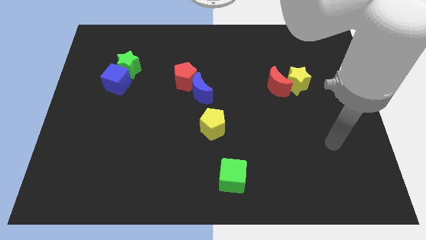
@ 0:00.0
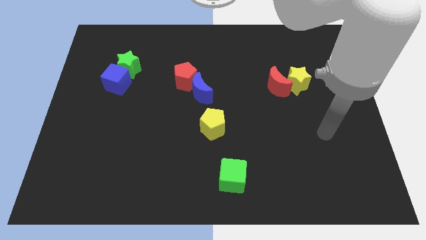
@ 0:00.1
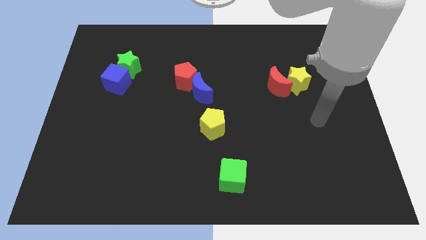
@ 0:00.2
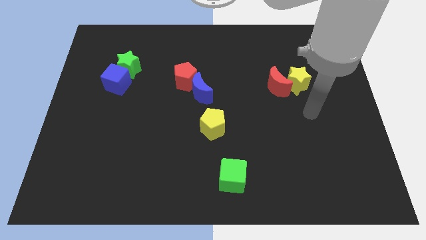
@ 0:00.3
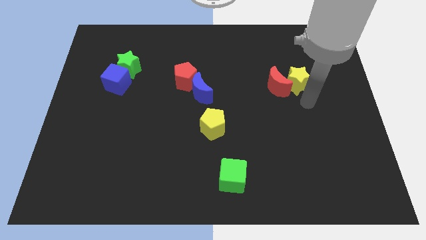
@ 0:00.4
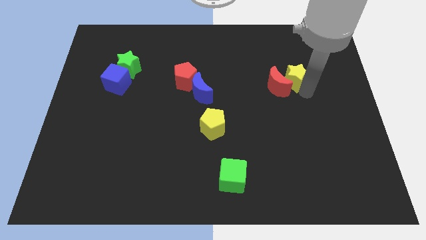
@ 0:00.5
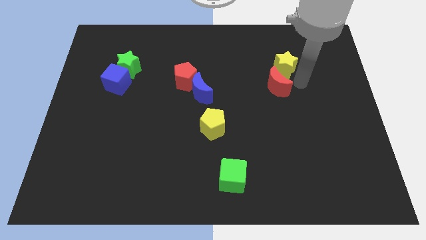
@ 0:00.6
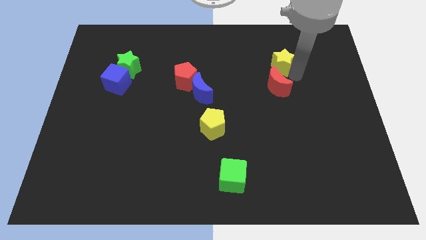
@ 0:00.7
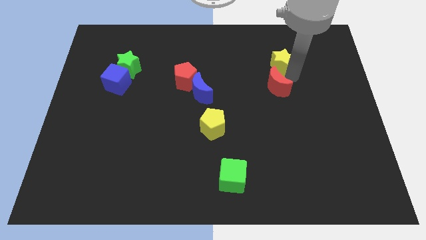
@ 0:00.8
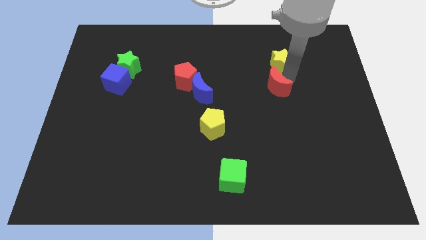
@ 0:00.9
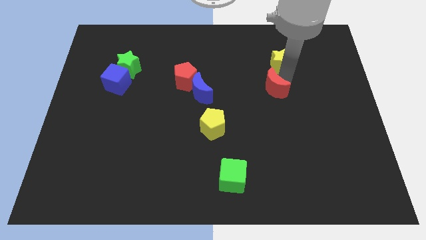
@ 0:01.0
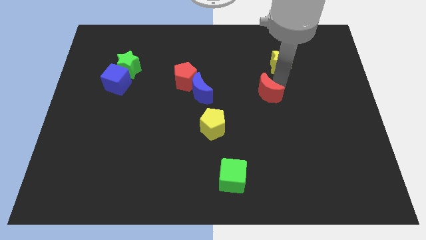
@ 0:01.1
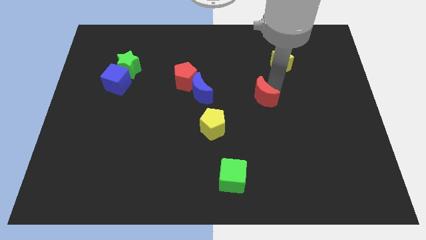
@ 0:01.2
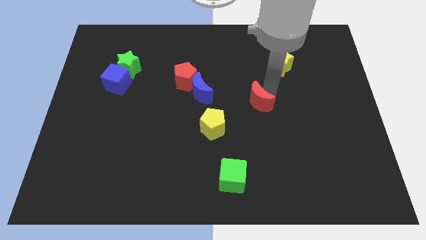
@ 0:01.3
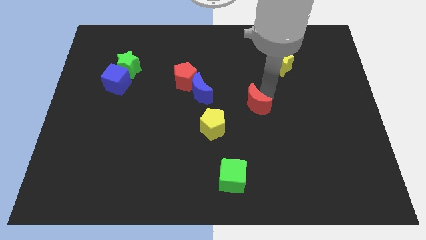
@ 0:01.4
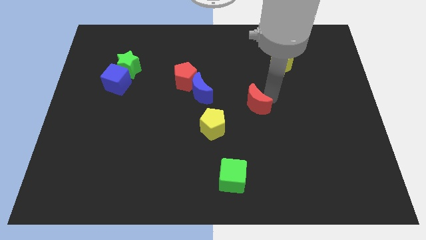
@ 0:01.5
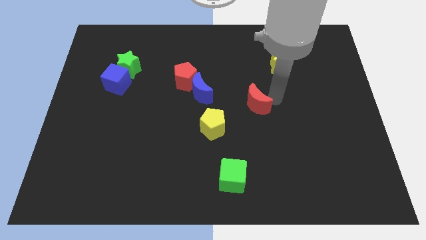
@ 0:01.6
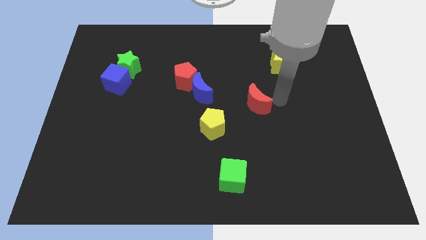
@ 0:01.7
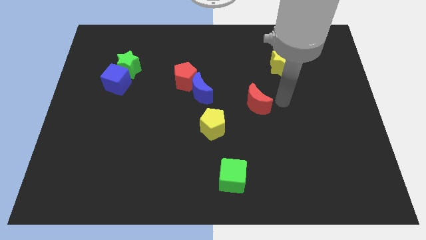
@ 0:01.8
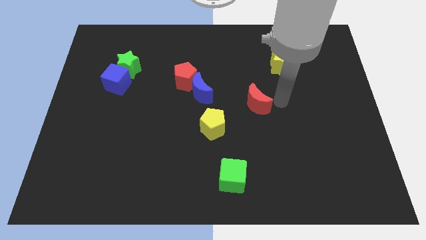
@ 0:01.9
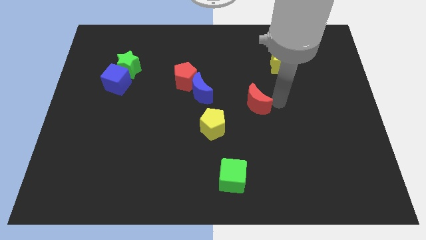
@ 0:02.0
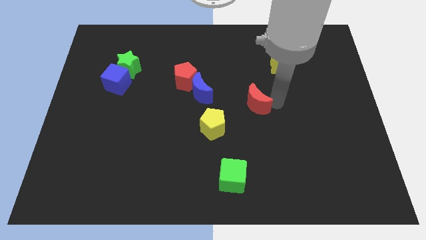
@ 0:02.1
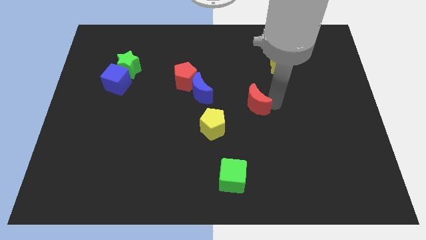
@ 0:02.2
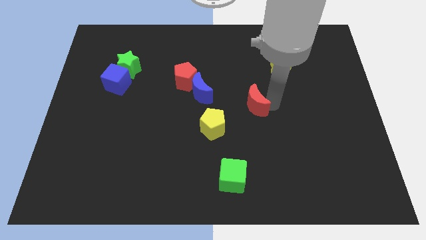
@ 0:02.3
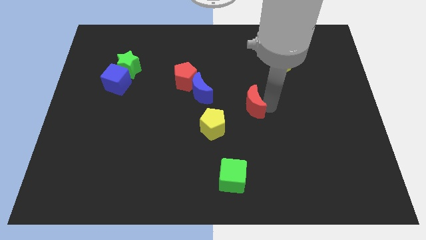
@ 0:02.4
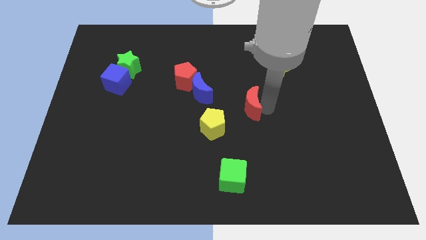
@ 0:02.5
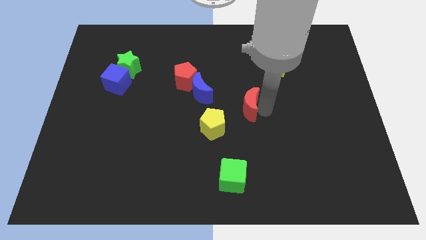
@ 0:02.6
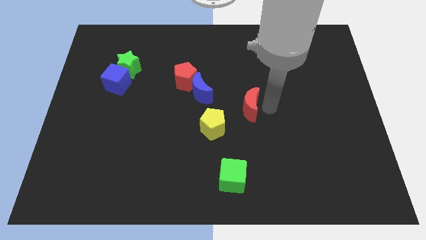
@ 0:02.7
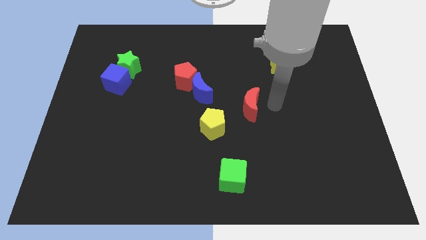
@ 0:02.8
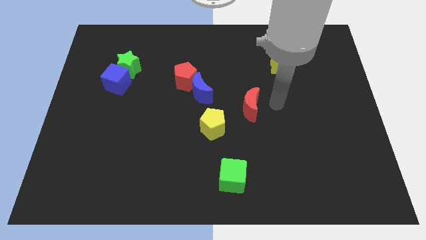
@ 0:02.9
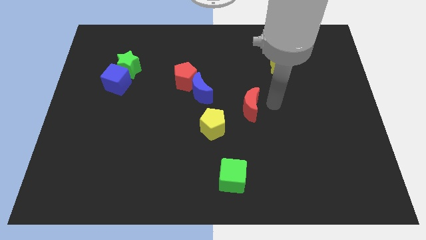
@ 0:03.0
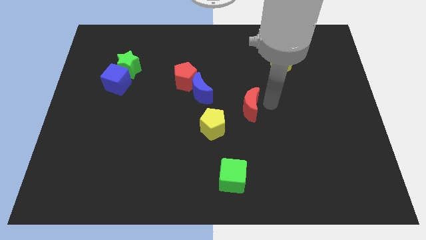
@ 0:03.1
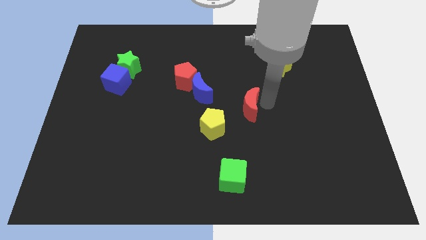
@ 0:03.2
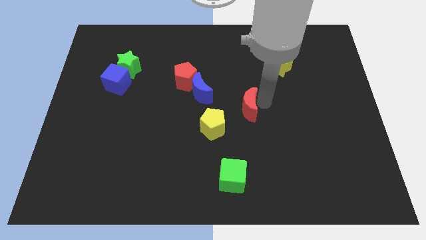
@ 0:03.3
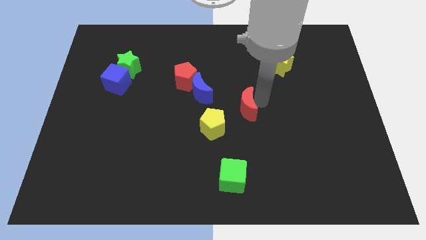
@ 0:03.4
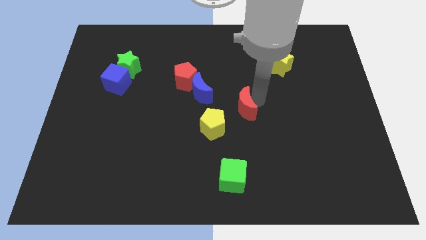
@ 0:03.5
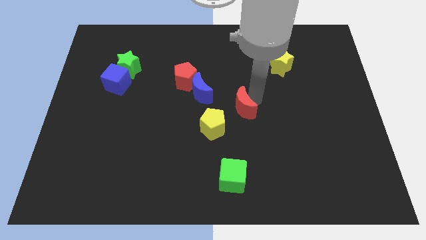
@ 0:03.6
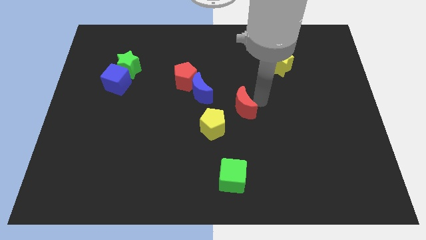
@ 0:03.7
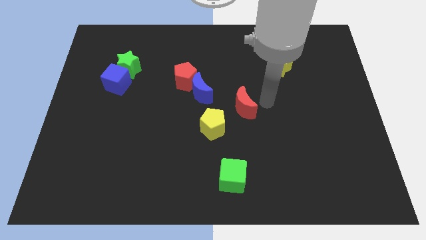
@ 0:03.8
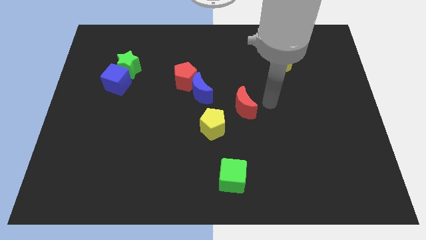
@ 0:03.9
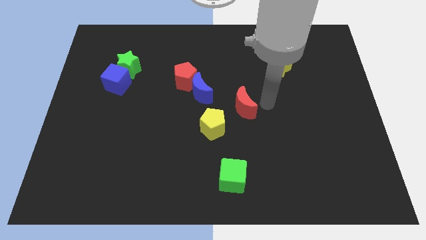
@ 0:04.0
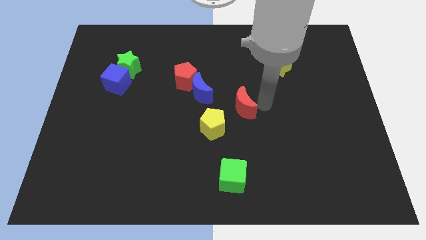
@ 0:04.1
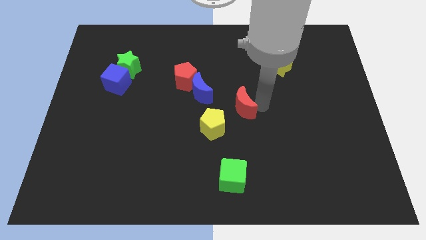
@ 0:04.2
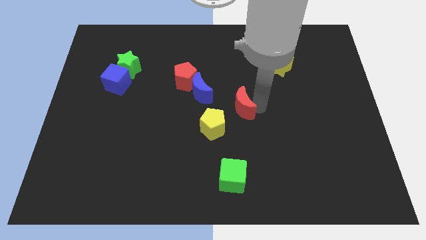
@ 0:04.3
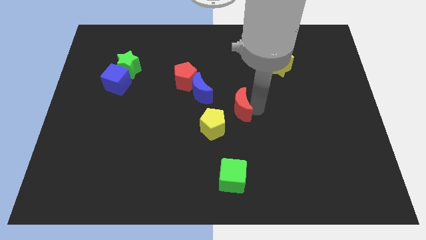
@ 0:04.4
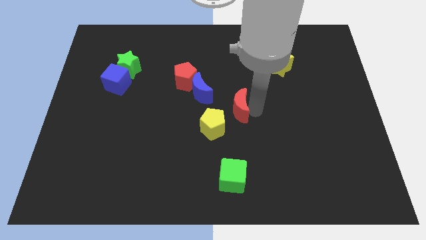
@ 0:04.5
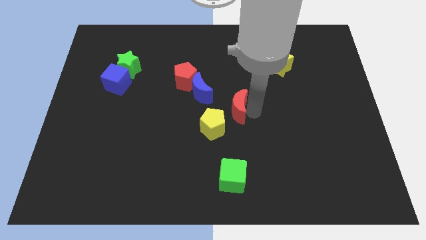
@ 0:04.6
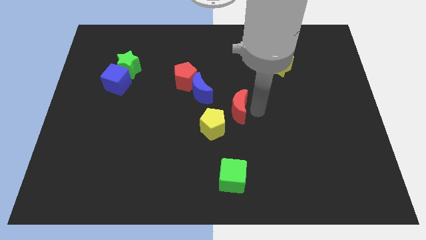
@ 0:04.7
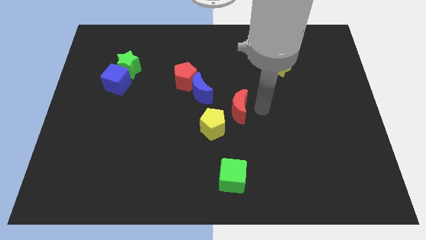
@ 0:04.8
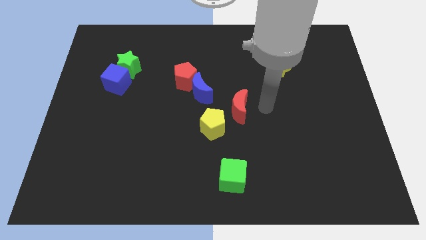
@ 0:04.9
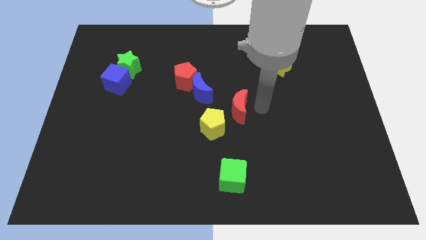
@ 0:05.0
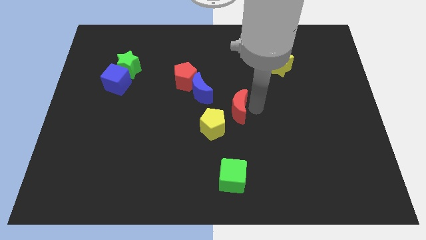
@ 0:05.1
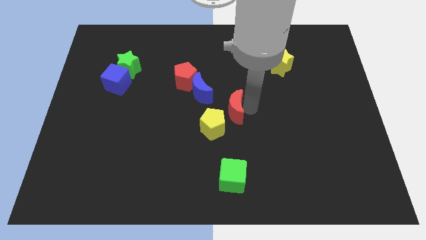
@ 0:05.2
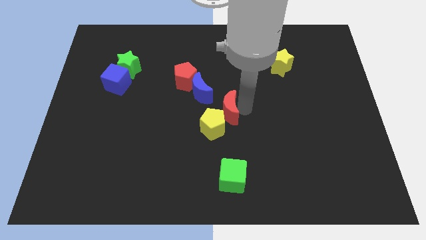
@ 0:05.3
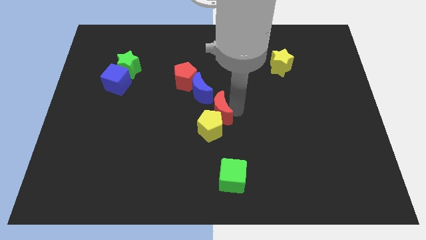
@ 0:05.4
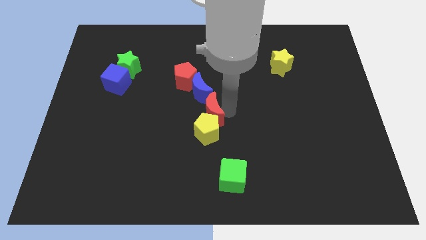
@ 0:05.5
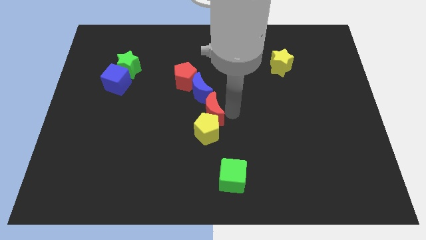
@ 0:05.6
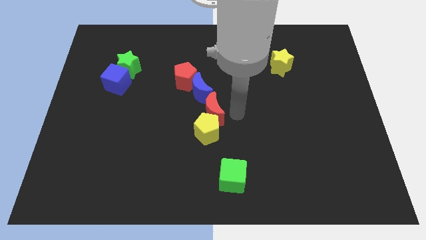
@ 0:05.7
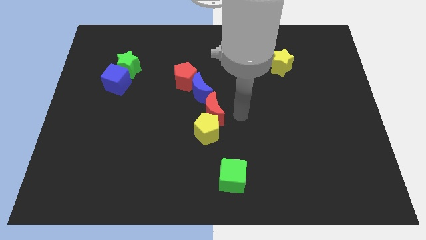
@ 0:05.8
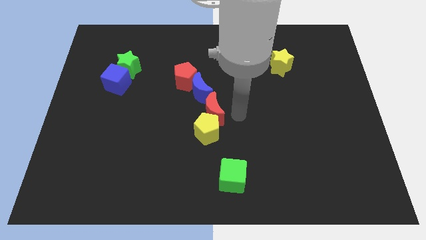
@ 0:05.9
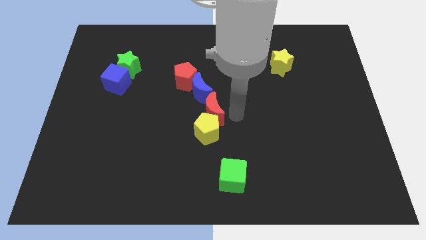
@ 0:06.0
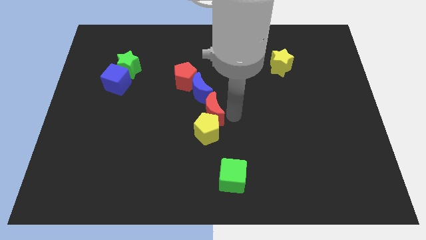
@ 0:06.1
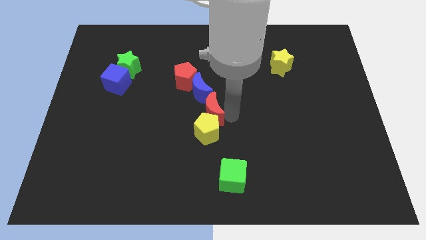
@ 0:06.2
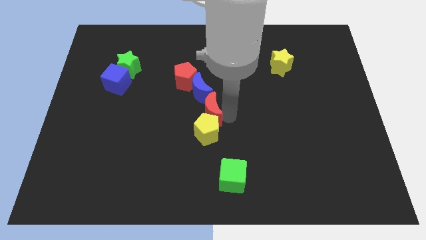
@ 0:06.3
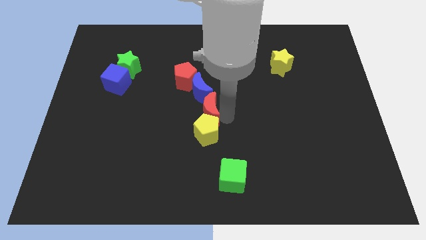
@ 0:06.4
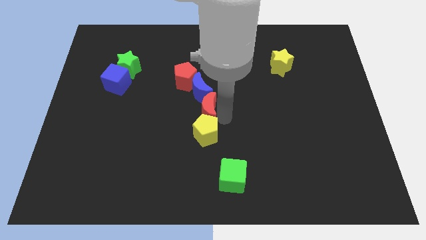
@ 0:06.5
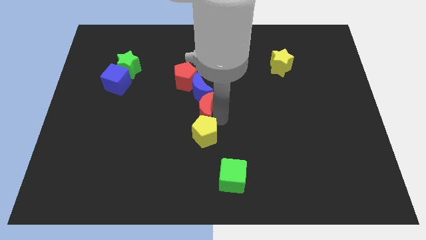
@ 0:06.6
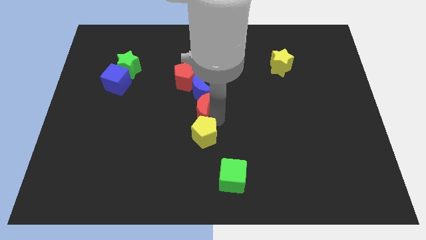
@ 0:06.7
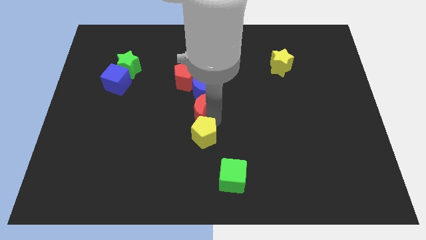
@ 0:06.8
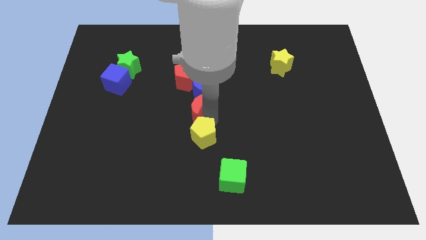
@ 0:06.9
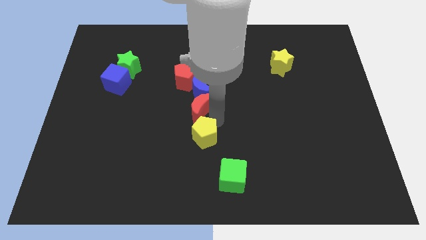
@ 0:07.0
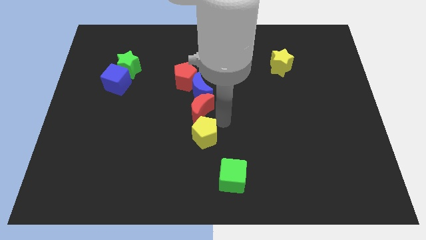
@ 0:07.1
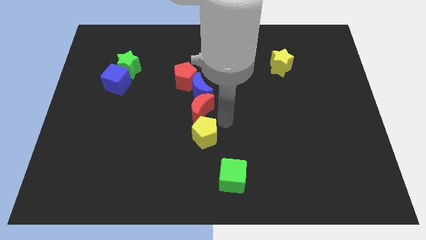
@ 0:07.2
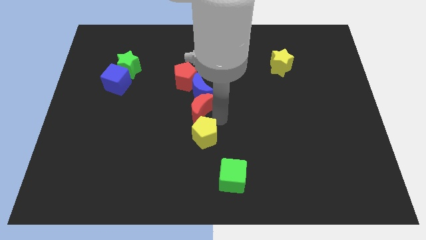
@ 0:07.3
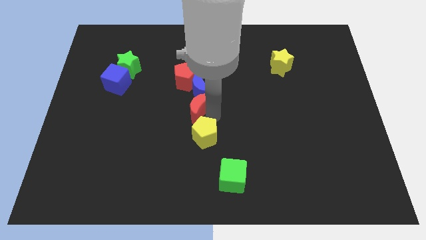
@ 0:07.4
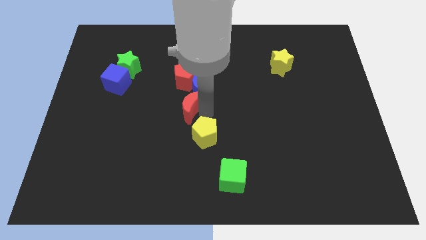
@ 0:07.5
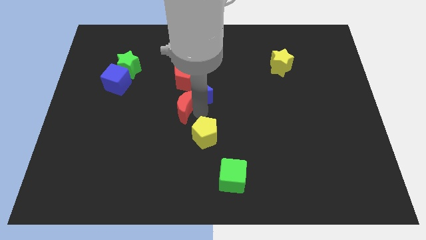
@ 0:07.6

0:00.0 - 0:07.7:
push the red moon left

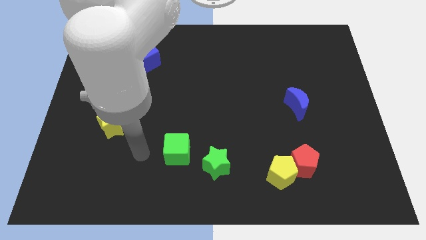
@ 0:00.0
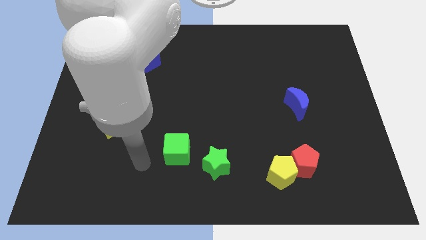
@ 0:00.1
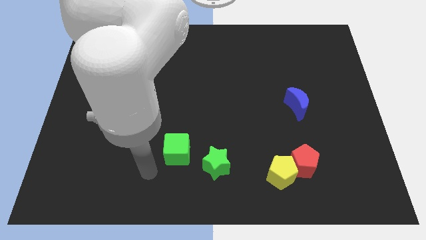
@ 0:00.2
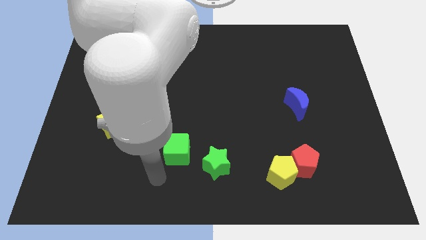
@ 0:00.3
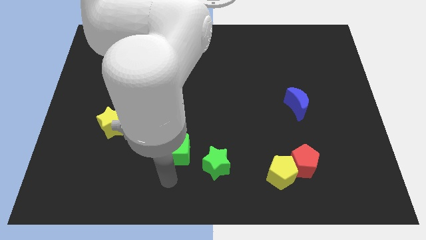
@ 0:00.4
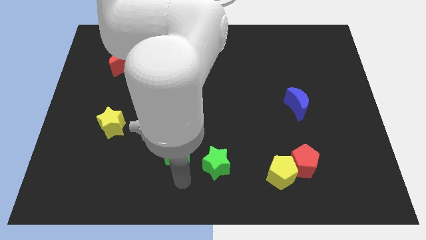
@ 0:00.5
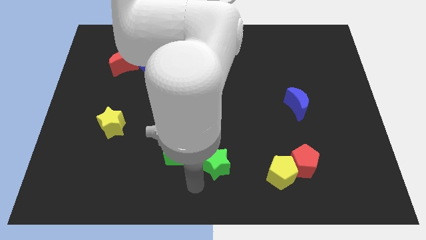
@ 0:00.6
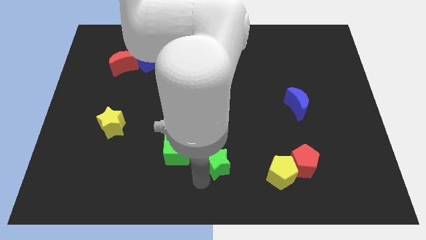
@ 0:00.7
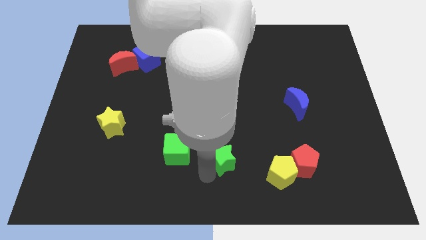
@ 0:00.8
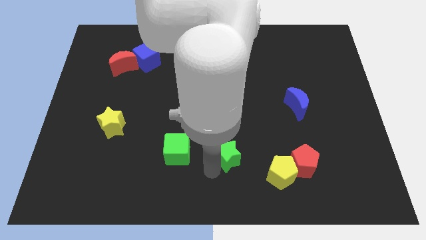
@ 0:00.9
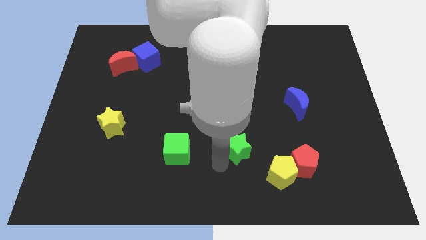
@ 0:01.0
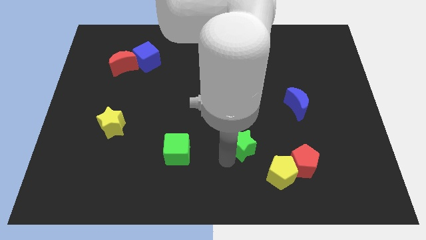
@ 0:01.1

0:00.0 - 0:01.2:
slightly move the green star upwards and right
